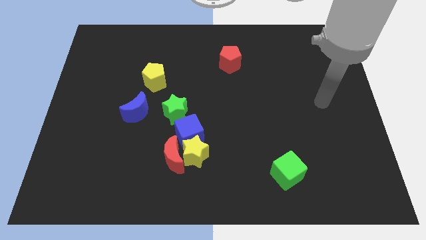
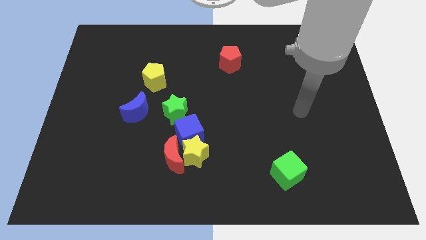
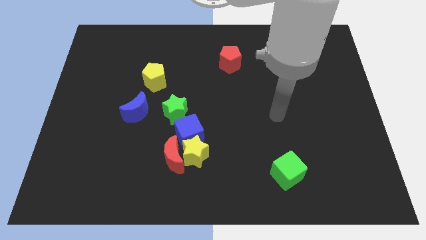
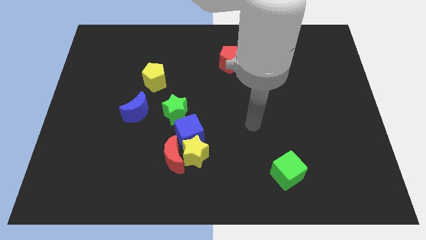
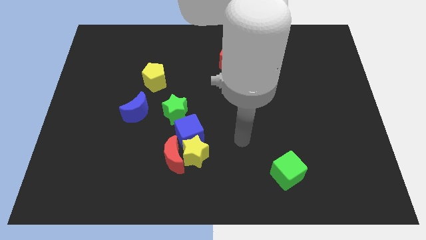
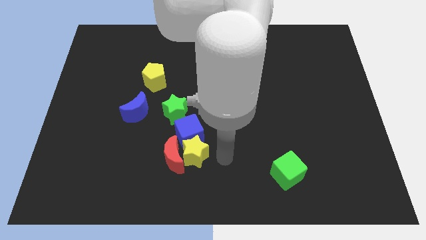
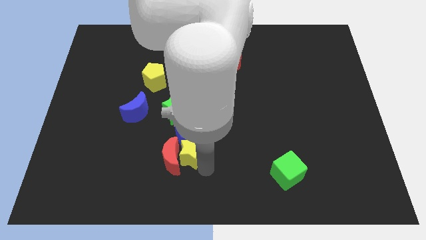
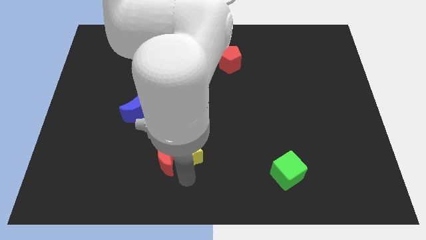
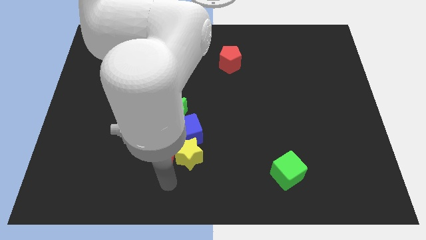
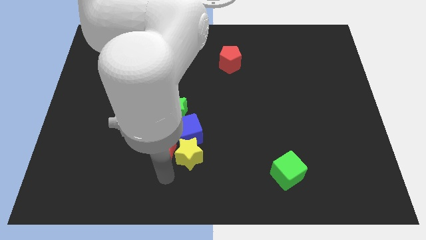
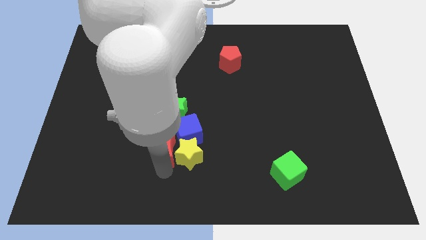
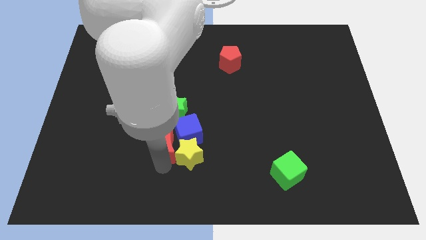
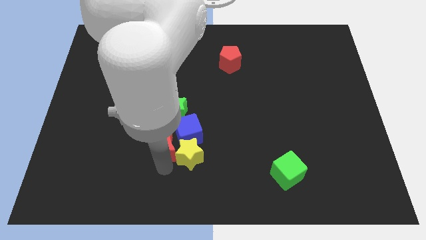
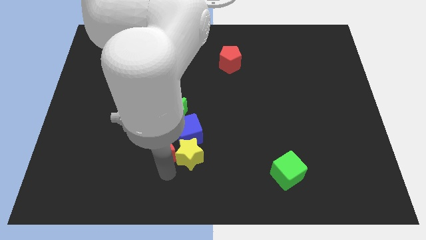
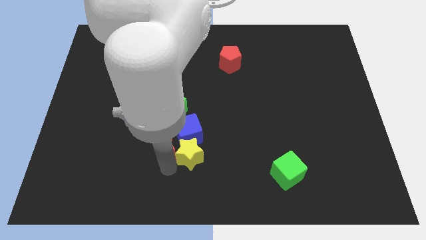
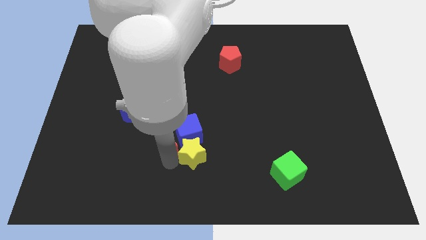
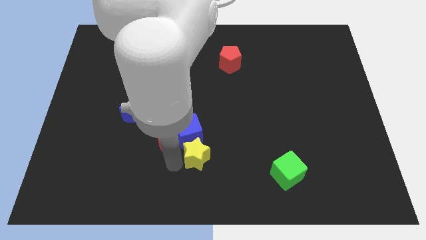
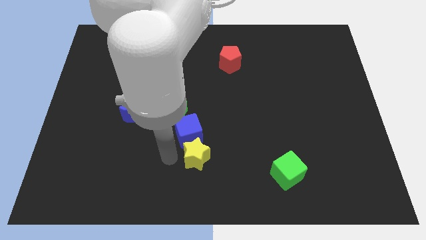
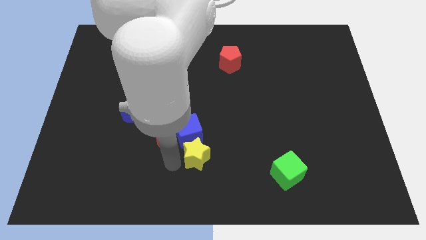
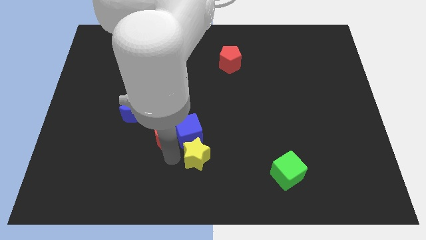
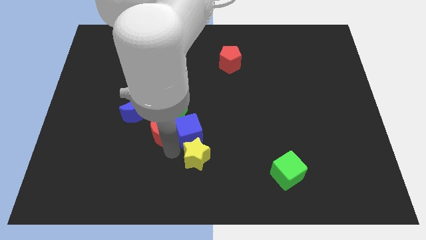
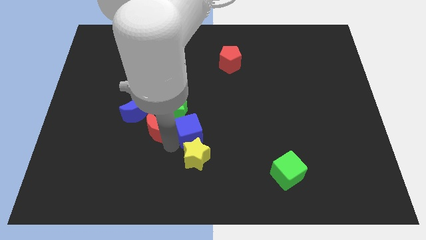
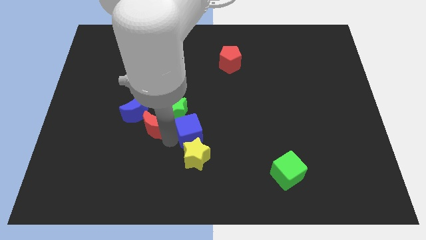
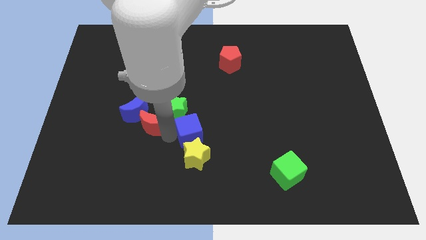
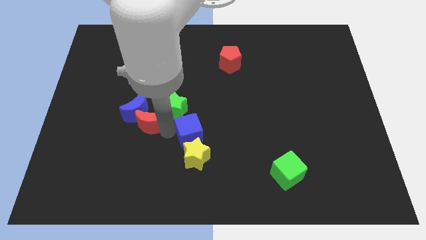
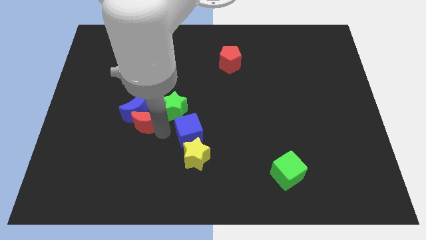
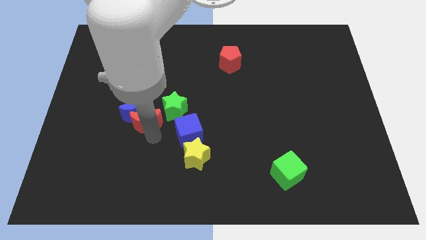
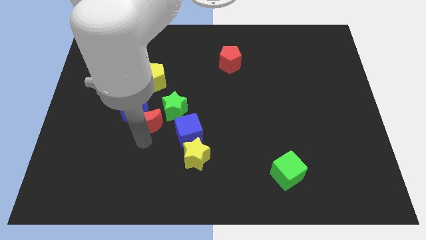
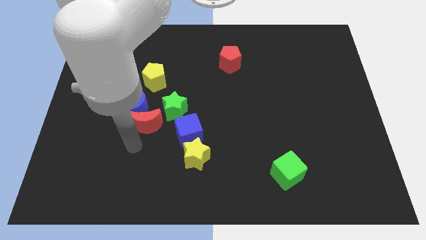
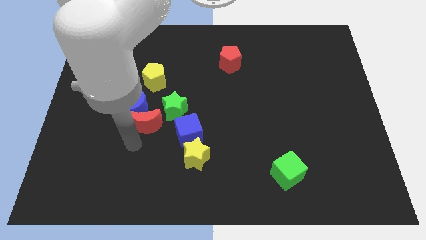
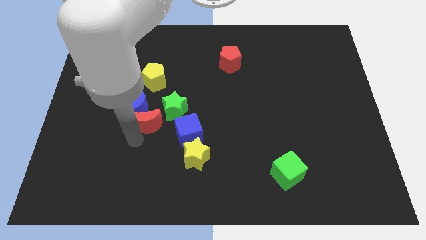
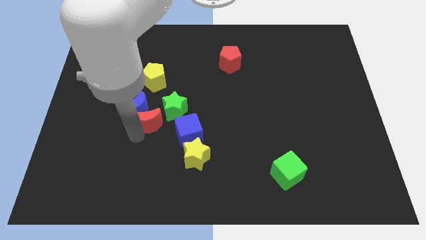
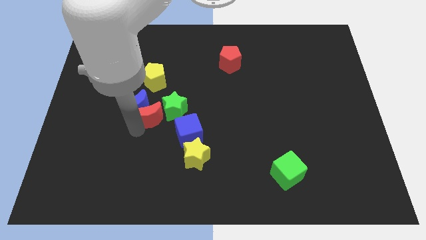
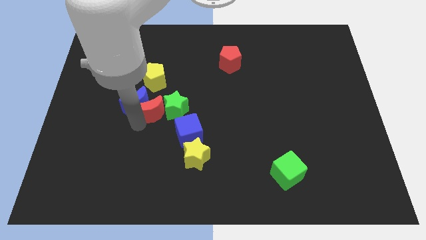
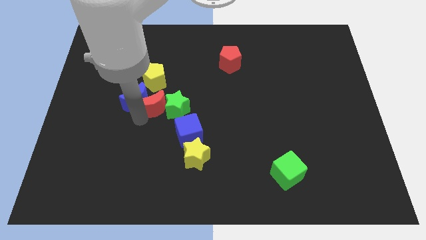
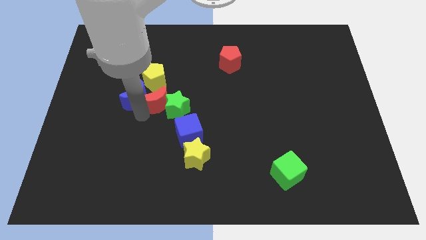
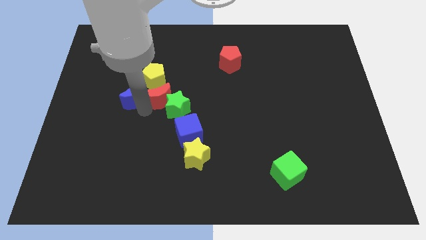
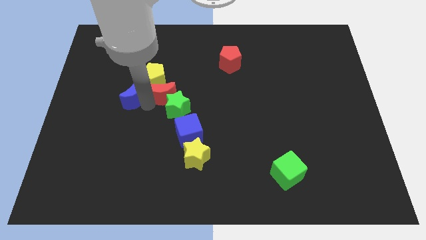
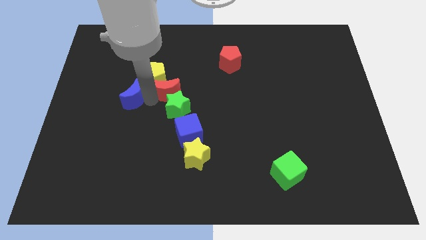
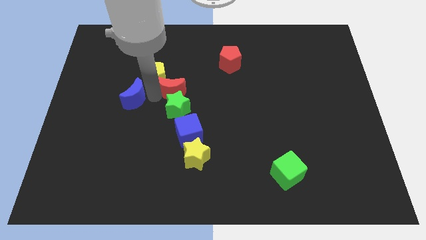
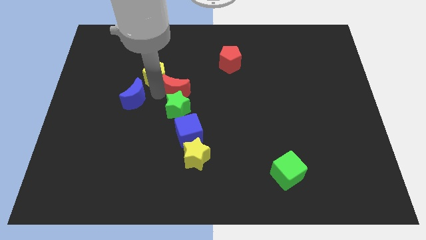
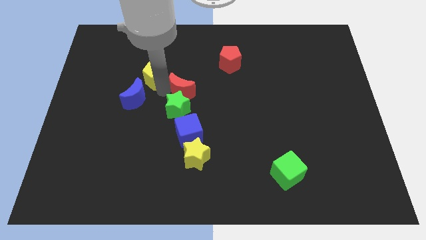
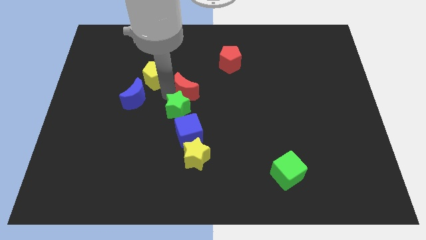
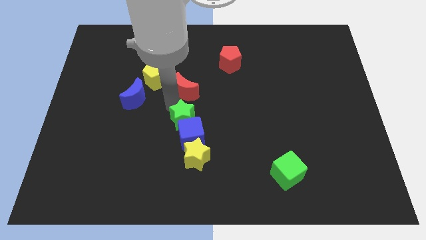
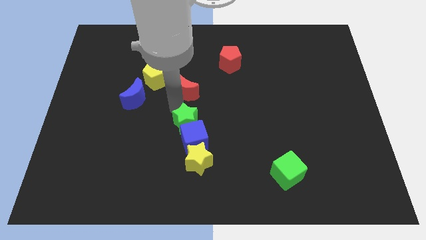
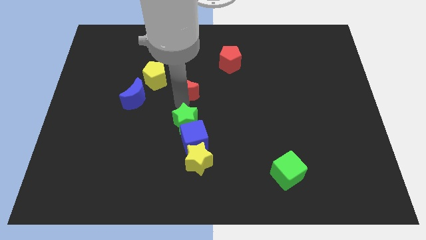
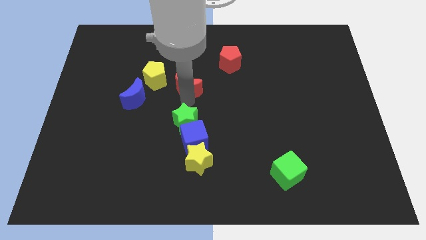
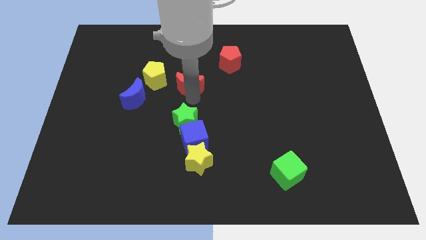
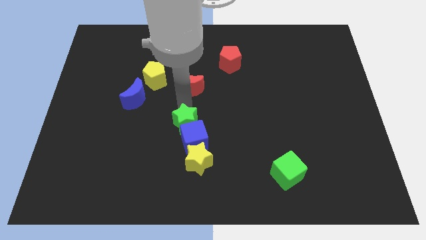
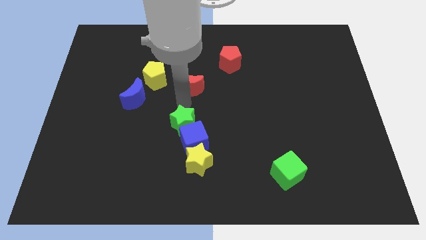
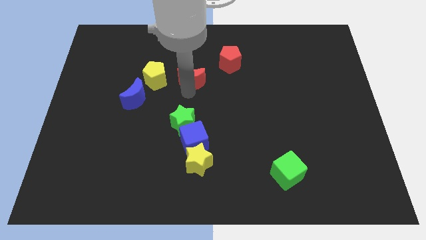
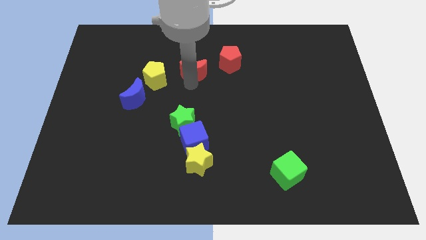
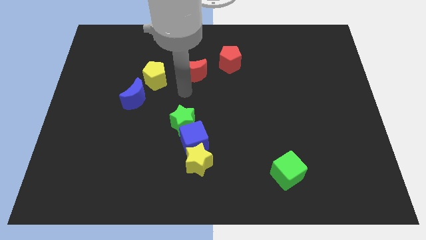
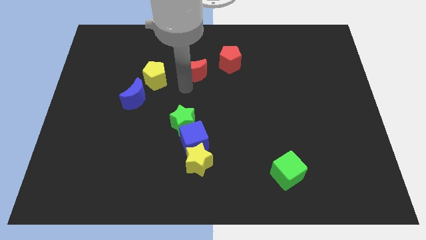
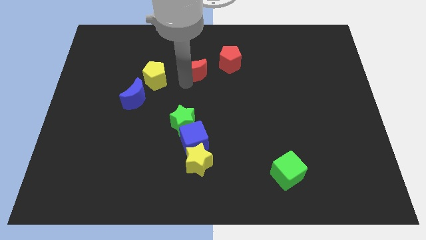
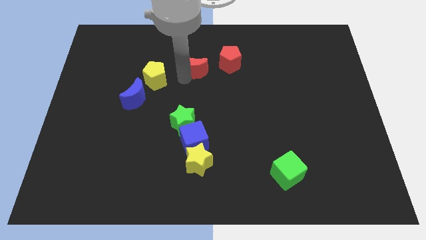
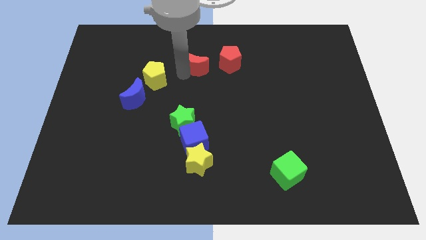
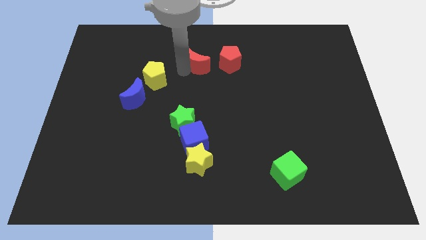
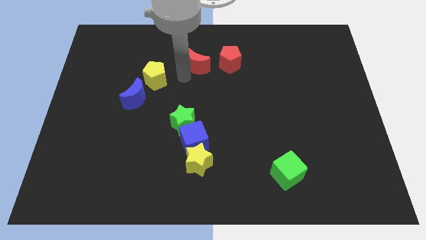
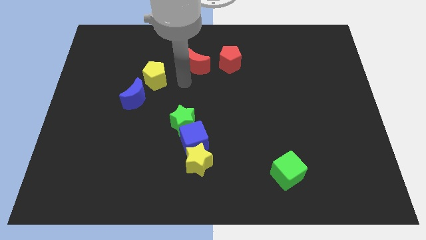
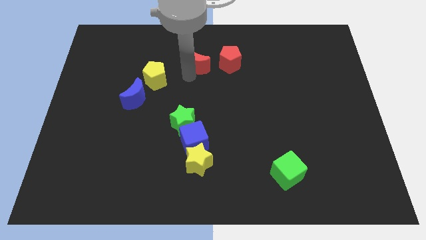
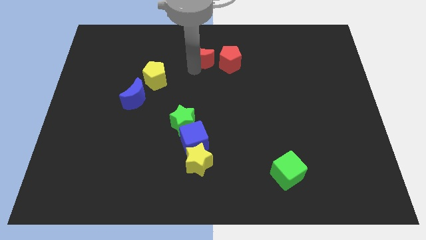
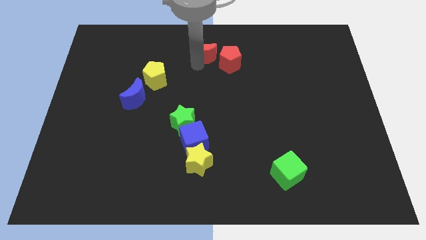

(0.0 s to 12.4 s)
put the red moon to the towards your base

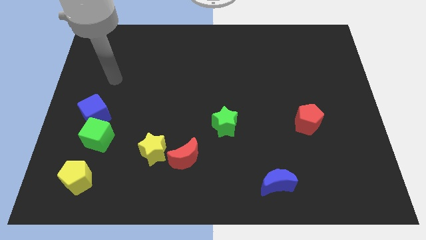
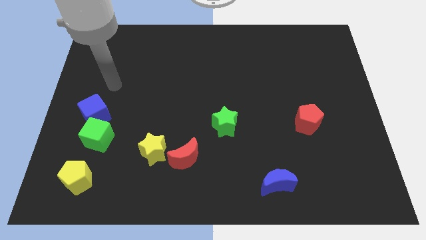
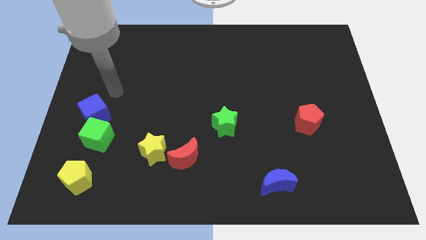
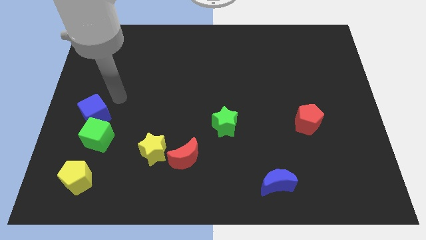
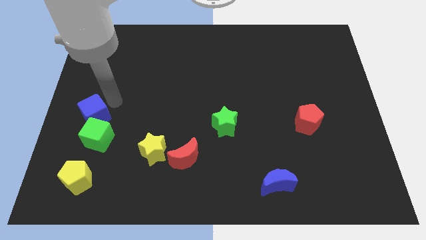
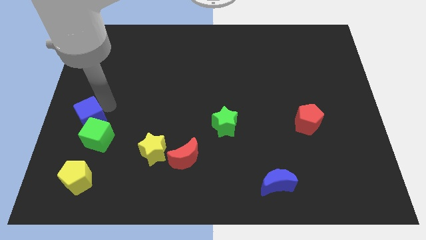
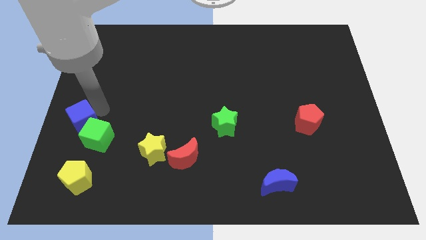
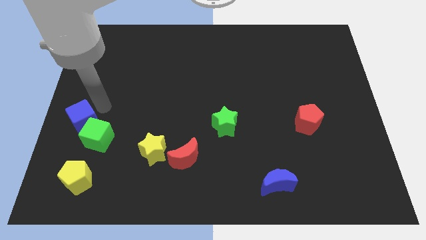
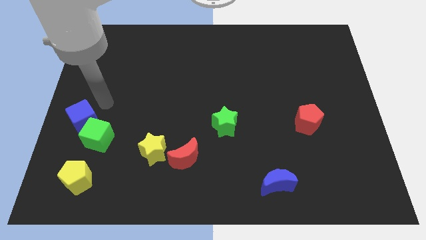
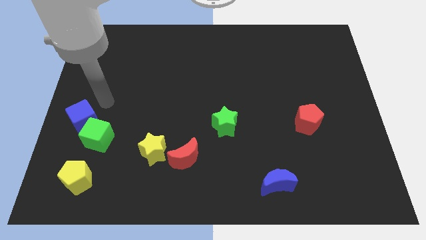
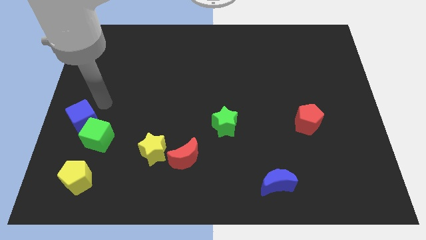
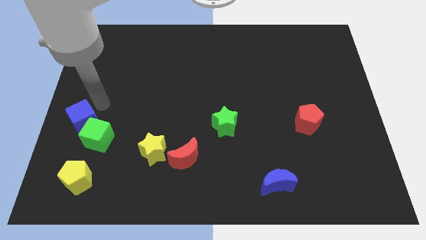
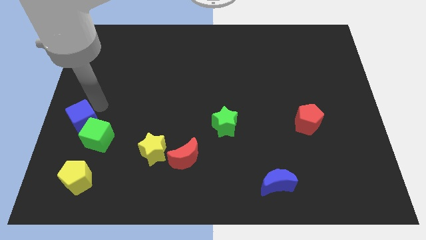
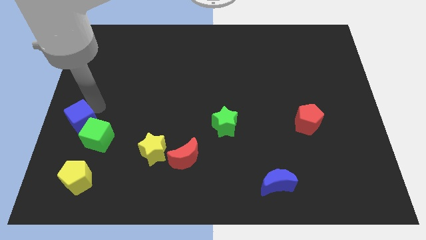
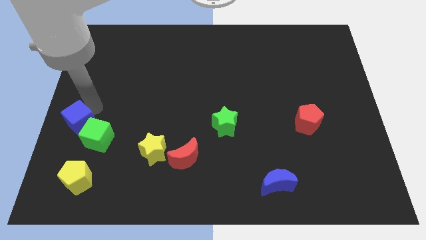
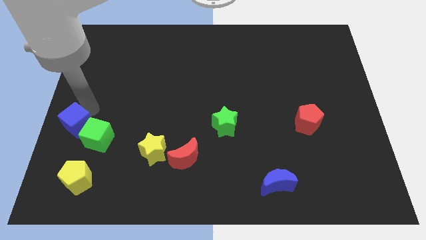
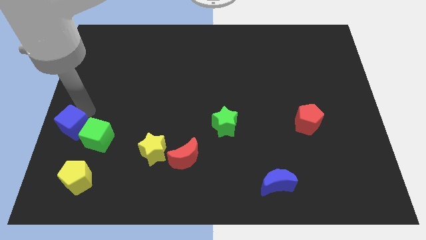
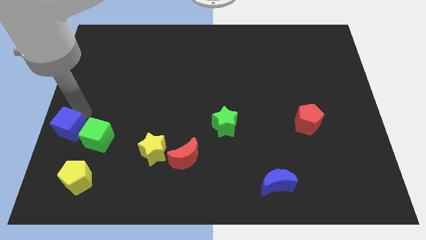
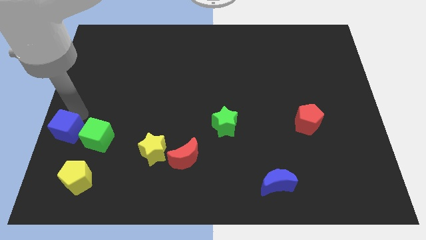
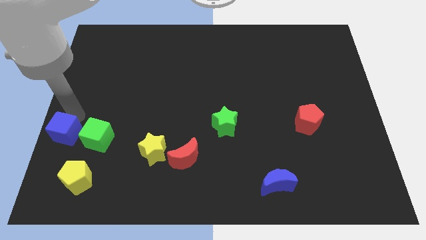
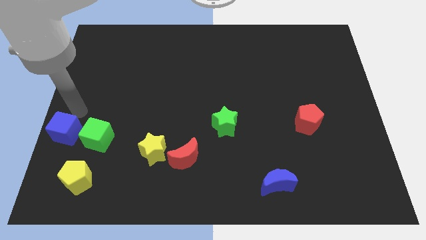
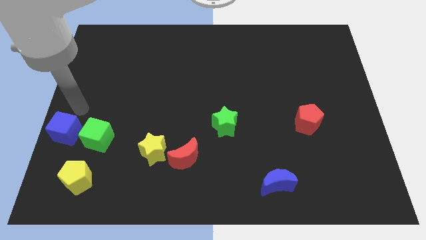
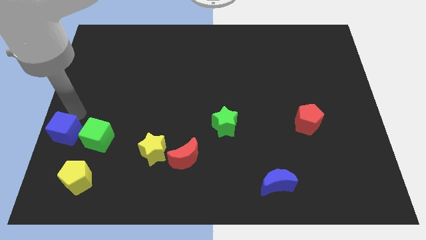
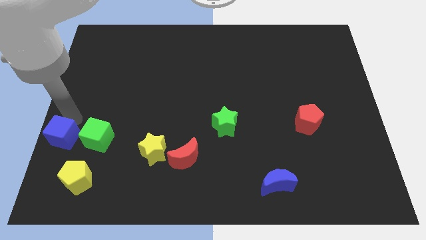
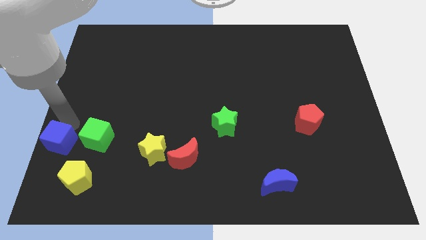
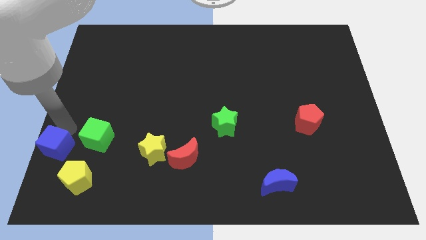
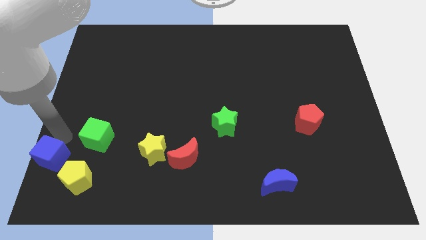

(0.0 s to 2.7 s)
push the blue cube to the bottom left
